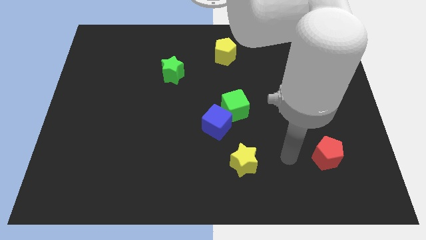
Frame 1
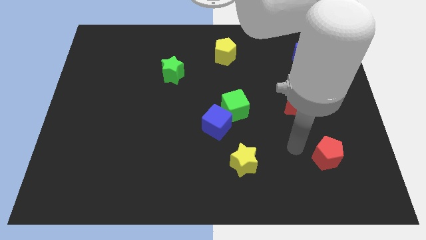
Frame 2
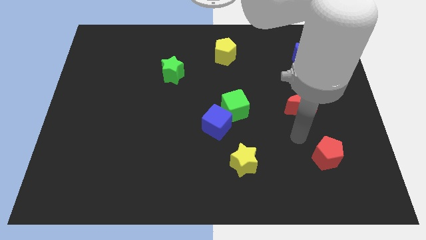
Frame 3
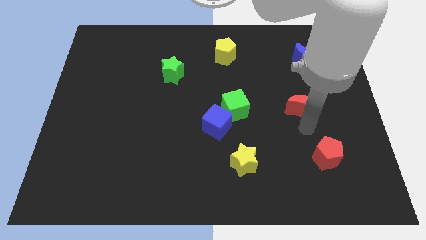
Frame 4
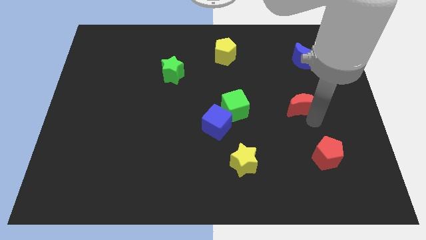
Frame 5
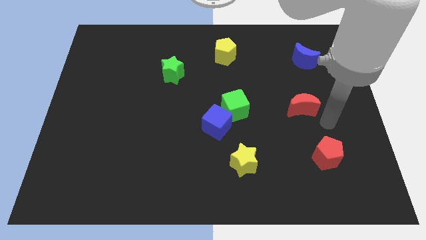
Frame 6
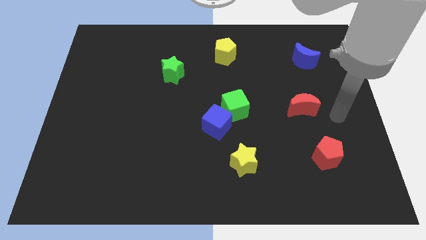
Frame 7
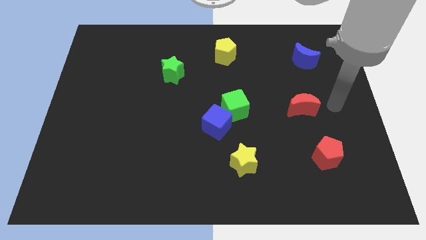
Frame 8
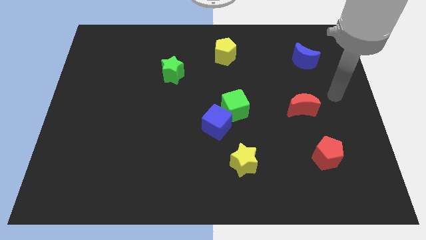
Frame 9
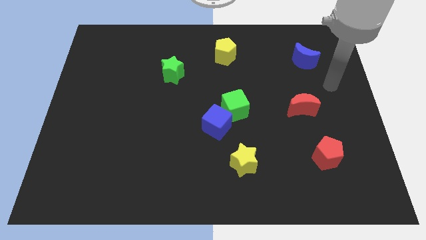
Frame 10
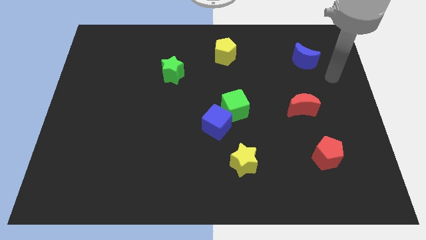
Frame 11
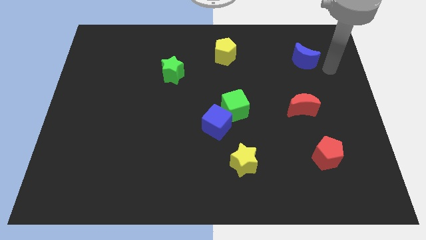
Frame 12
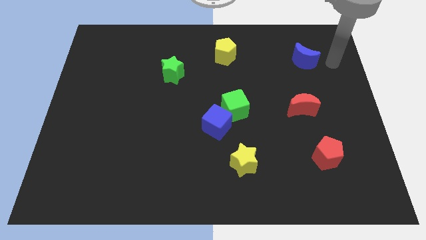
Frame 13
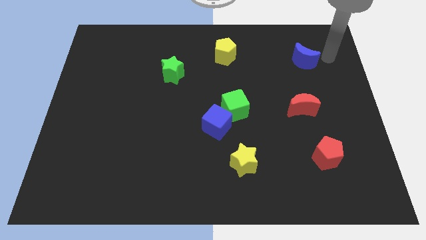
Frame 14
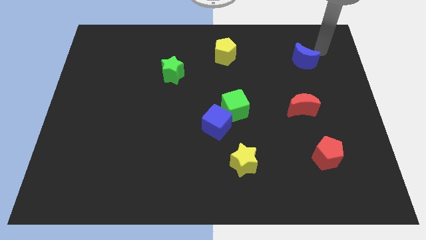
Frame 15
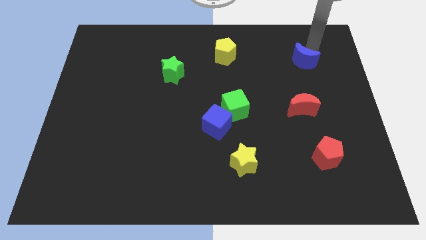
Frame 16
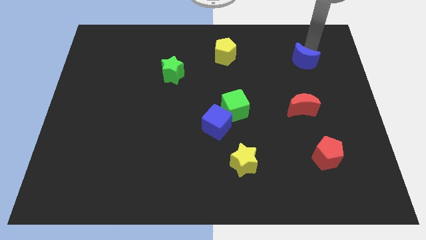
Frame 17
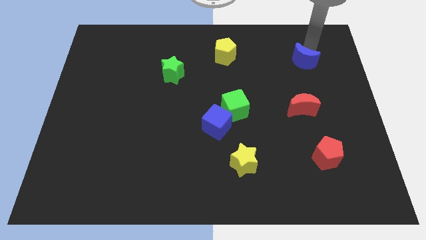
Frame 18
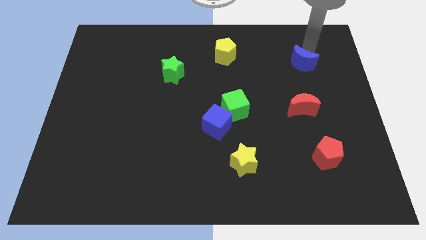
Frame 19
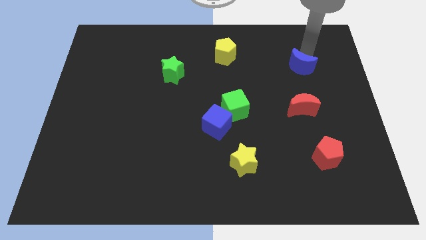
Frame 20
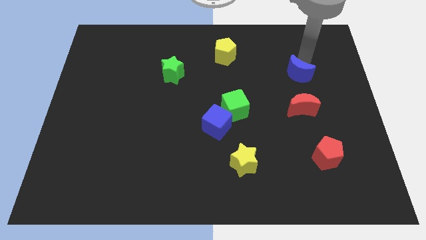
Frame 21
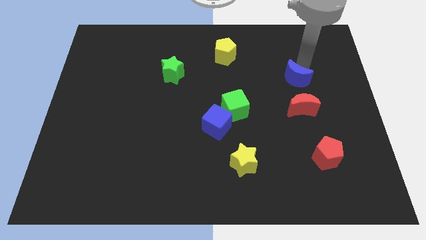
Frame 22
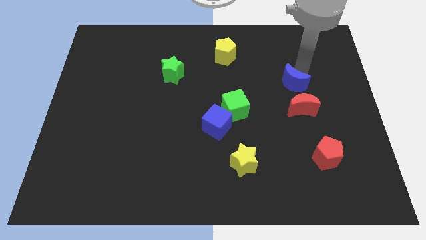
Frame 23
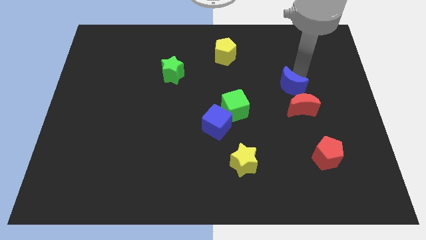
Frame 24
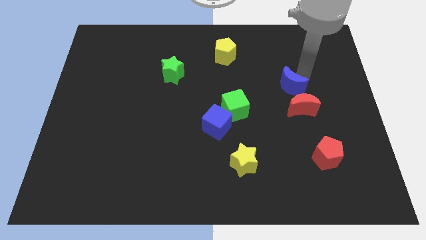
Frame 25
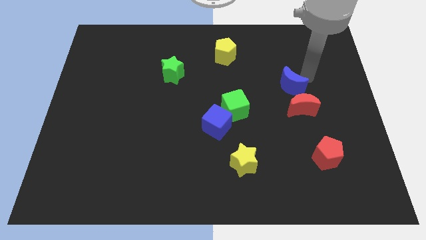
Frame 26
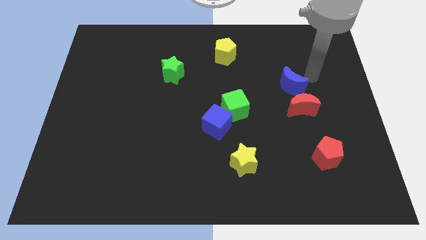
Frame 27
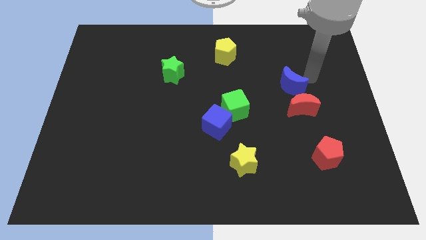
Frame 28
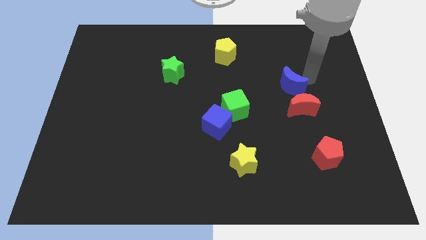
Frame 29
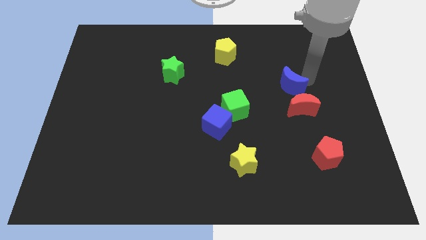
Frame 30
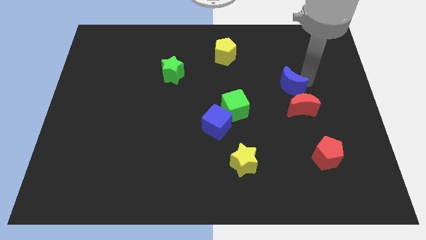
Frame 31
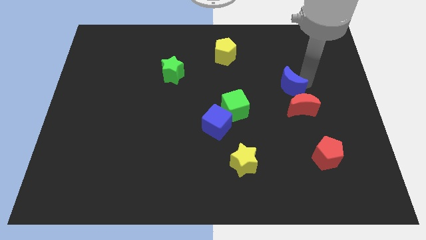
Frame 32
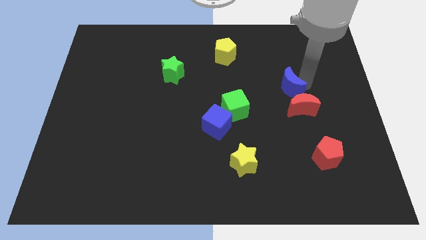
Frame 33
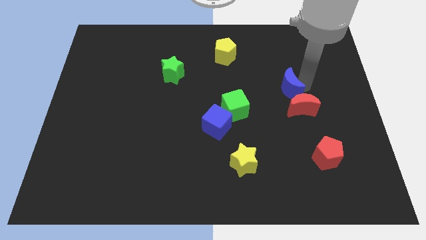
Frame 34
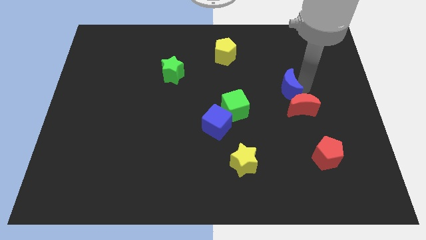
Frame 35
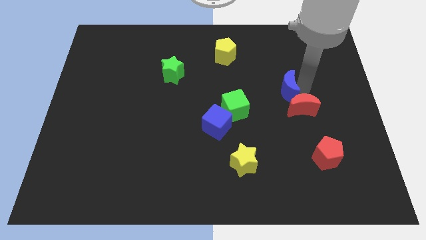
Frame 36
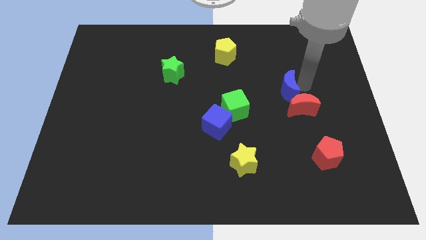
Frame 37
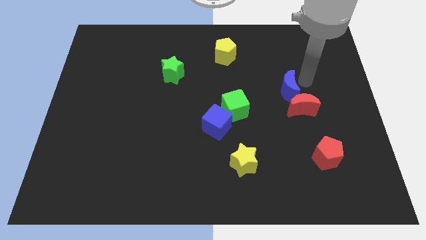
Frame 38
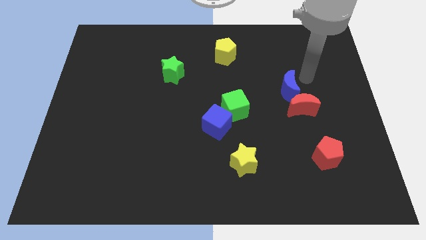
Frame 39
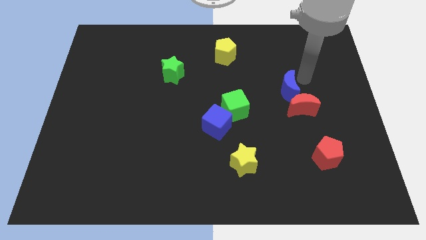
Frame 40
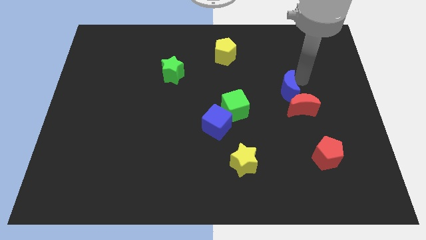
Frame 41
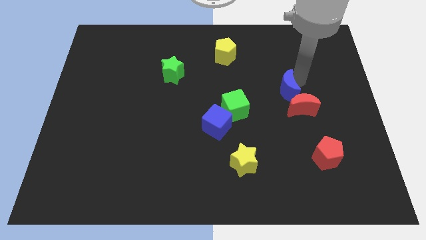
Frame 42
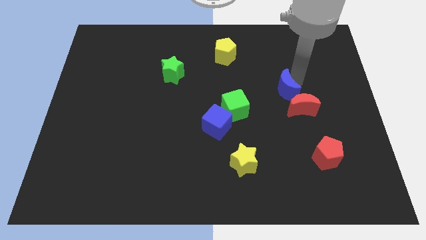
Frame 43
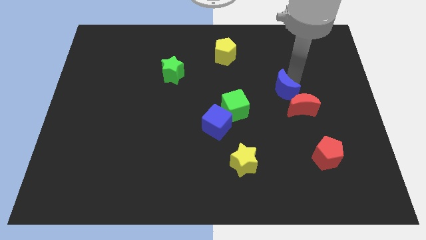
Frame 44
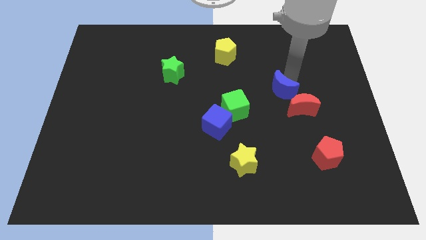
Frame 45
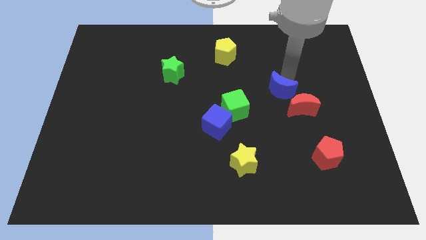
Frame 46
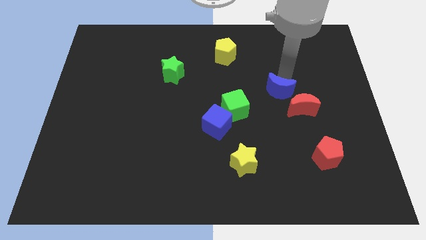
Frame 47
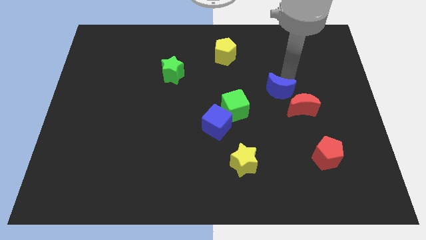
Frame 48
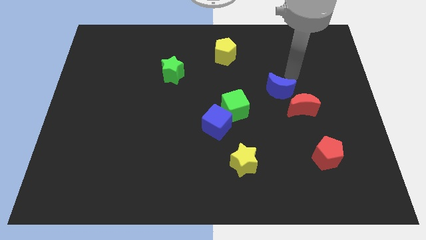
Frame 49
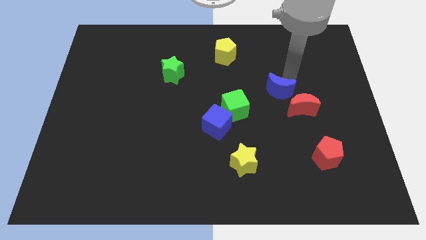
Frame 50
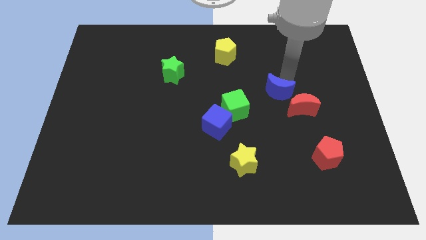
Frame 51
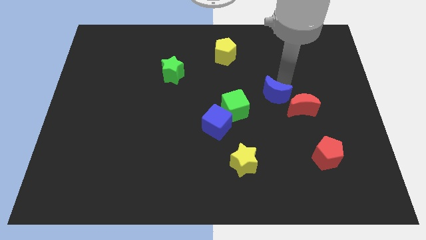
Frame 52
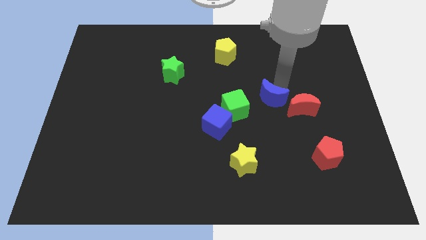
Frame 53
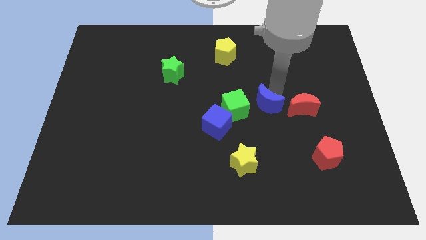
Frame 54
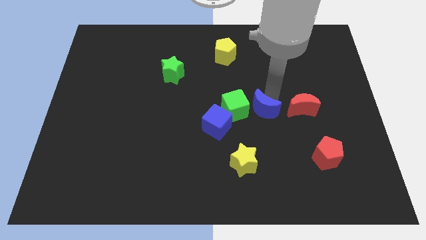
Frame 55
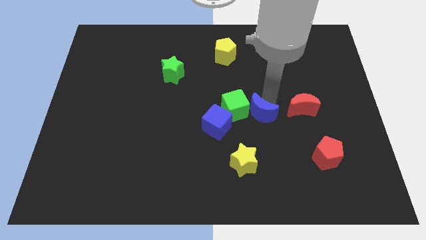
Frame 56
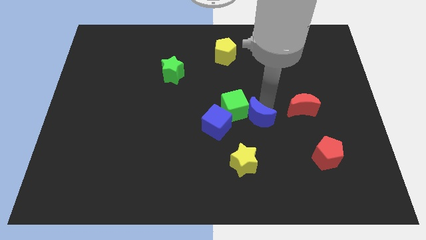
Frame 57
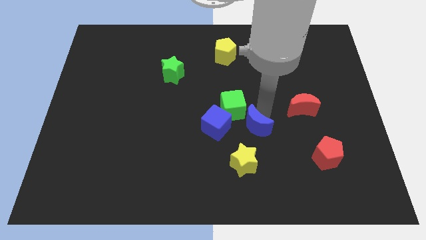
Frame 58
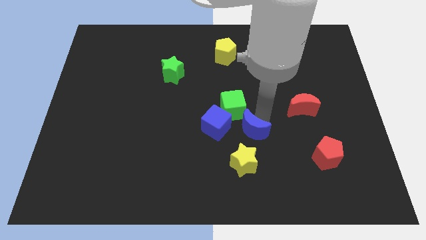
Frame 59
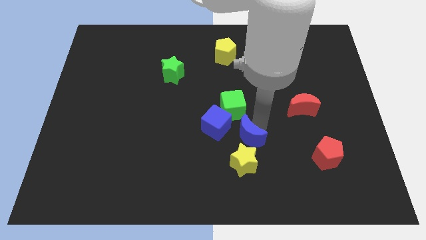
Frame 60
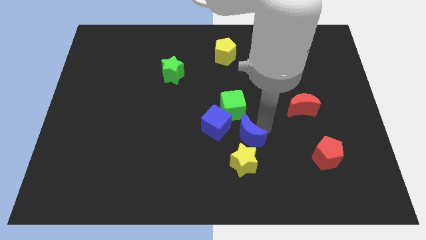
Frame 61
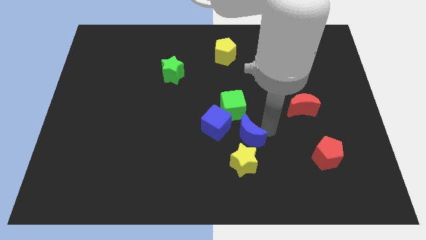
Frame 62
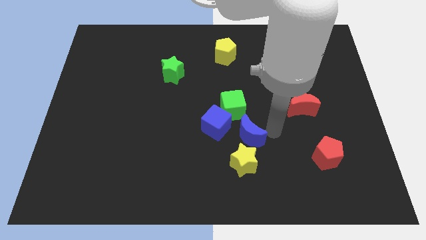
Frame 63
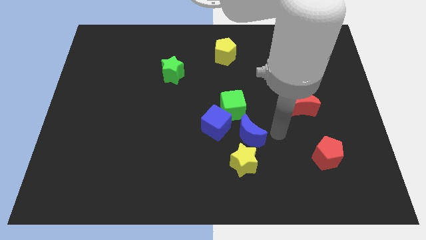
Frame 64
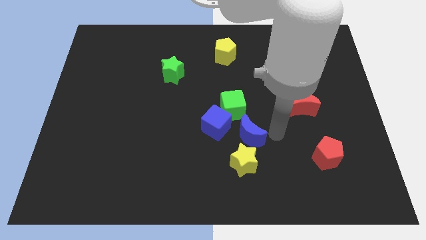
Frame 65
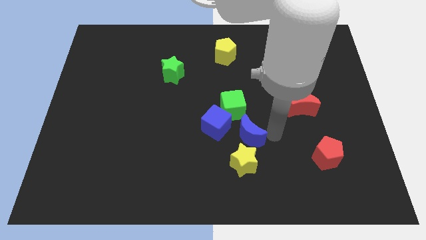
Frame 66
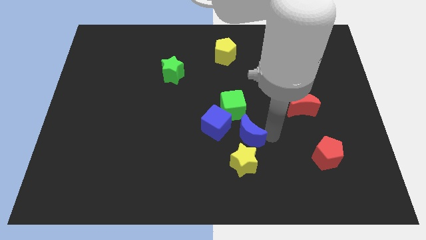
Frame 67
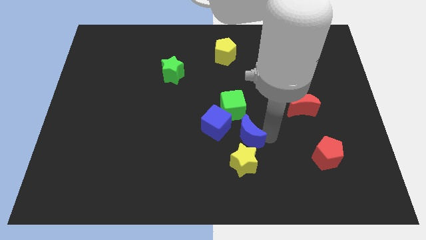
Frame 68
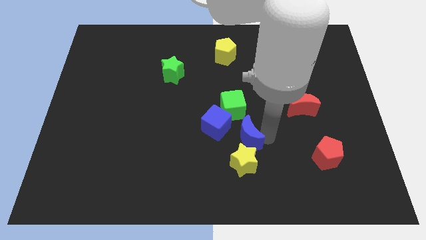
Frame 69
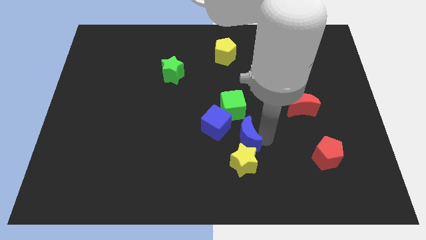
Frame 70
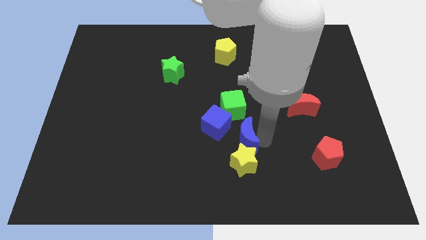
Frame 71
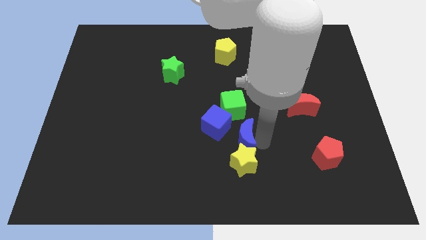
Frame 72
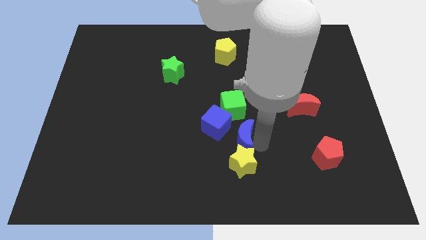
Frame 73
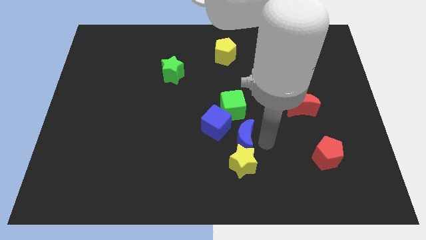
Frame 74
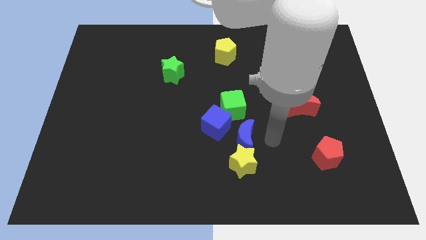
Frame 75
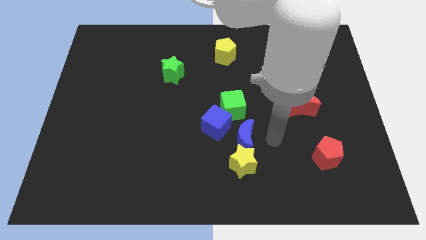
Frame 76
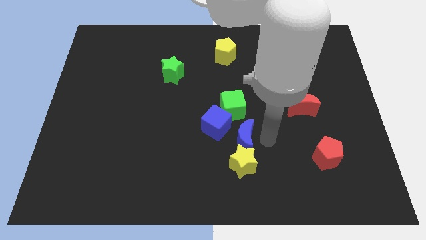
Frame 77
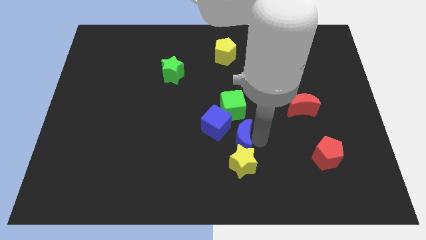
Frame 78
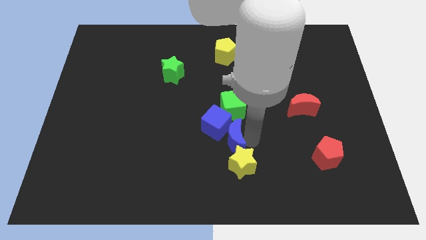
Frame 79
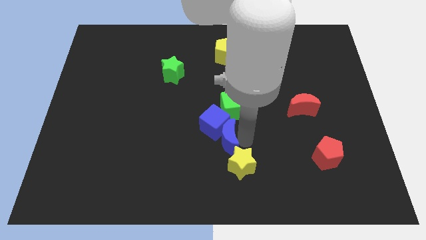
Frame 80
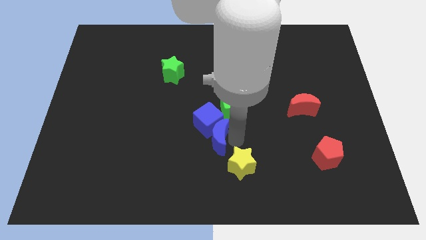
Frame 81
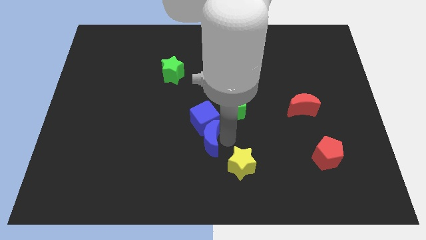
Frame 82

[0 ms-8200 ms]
put the blue moon to the bottom left of the blue cube
